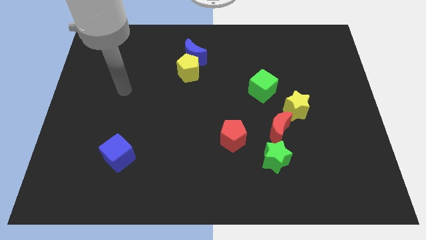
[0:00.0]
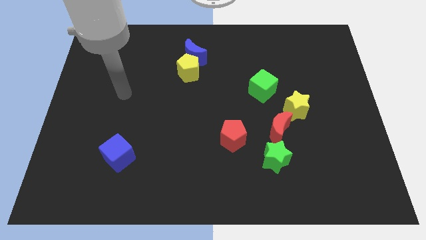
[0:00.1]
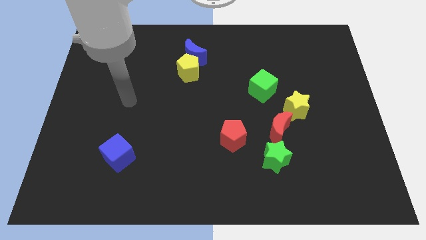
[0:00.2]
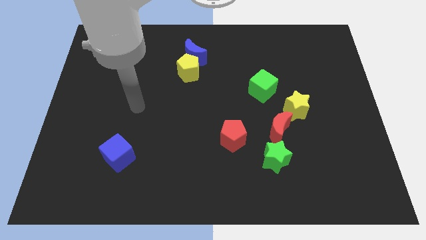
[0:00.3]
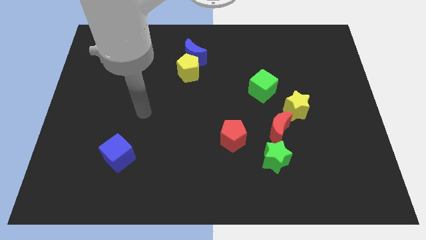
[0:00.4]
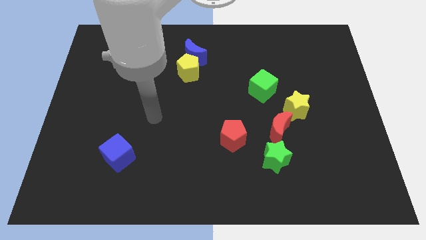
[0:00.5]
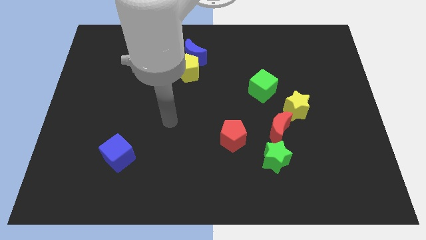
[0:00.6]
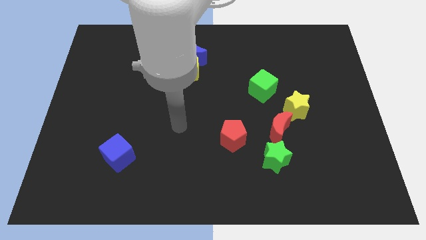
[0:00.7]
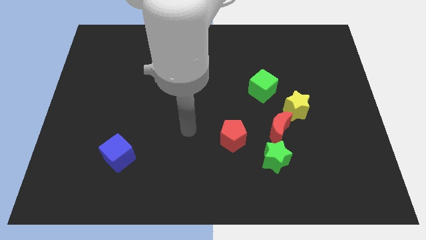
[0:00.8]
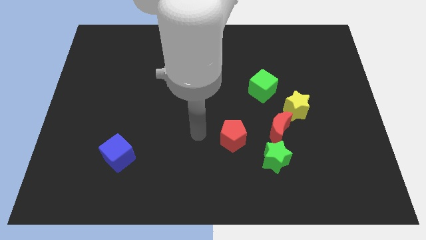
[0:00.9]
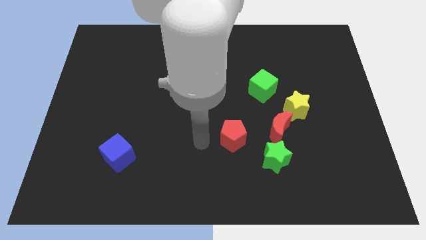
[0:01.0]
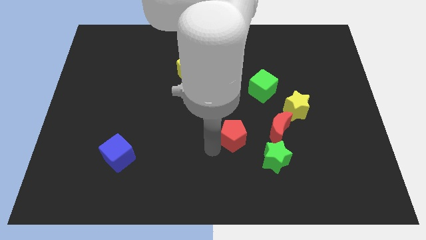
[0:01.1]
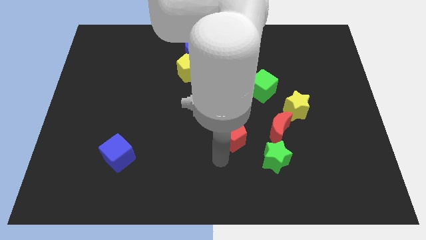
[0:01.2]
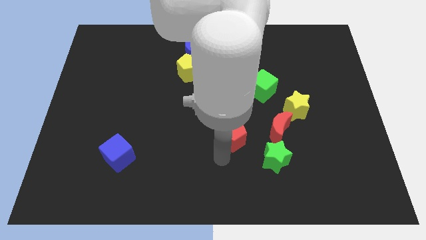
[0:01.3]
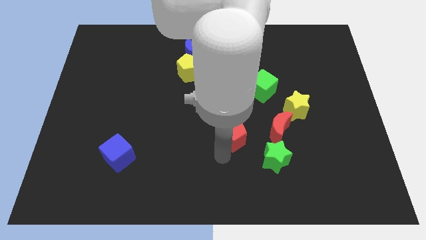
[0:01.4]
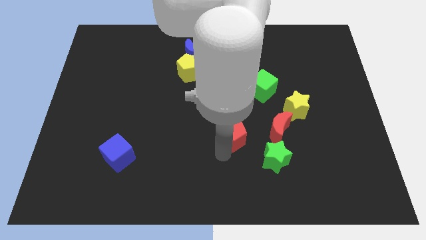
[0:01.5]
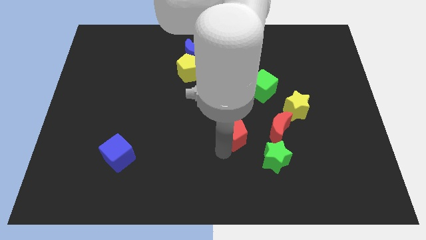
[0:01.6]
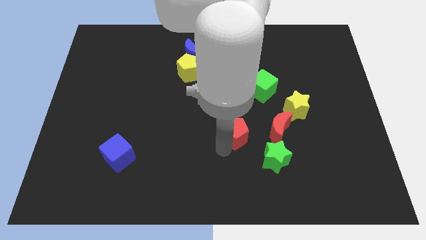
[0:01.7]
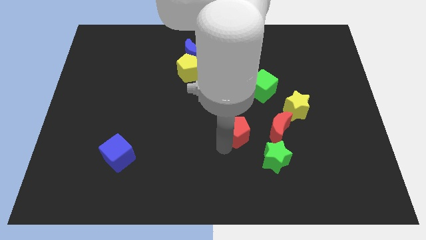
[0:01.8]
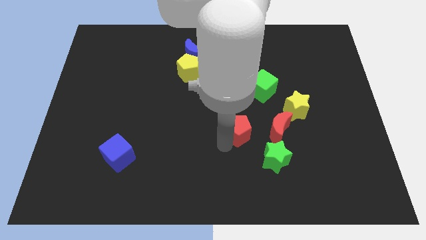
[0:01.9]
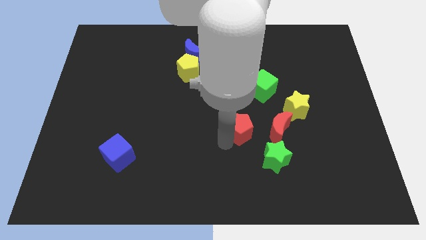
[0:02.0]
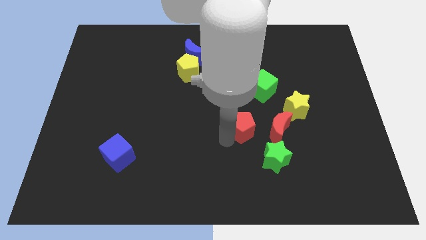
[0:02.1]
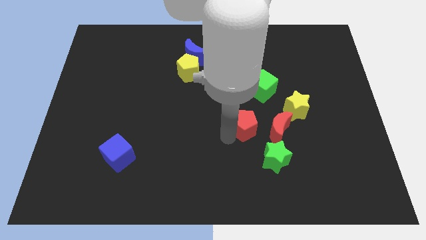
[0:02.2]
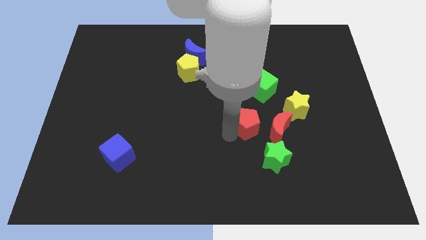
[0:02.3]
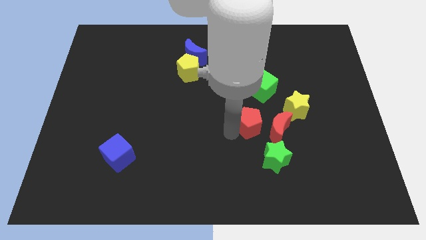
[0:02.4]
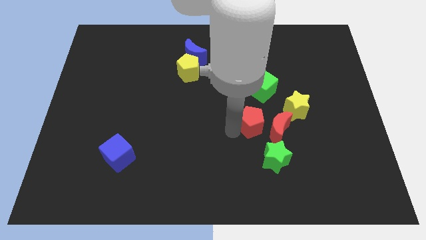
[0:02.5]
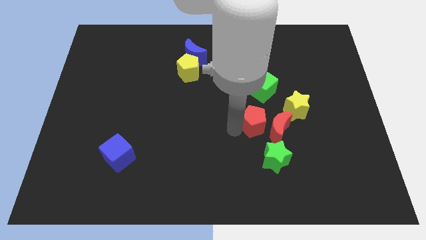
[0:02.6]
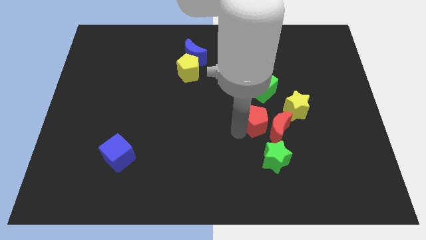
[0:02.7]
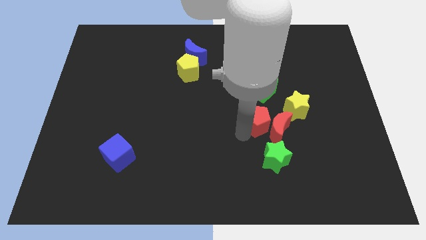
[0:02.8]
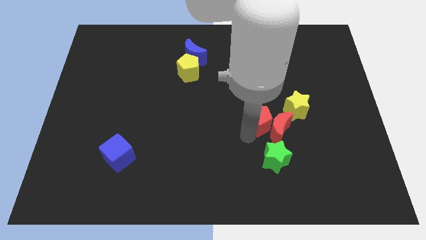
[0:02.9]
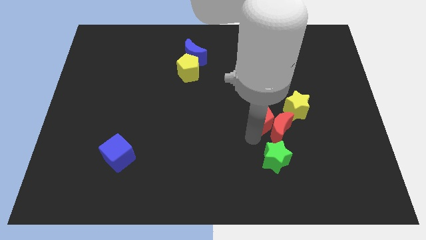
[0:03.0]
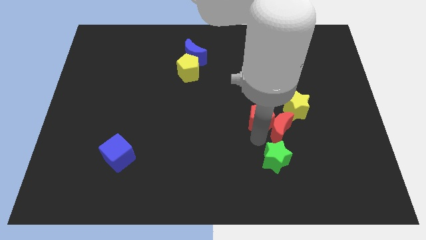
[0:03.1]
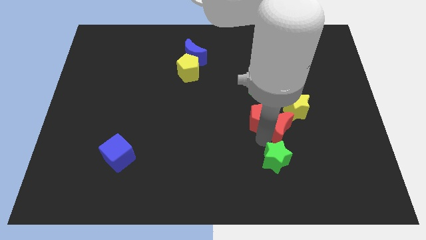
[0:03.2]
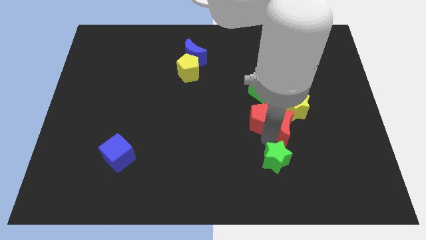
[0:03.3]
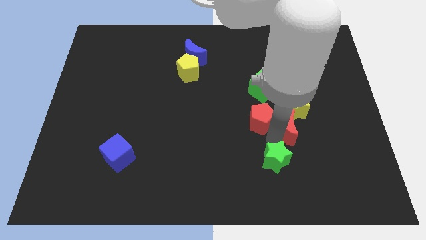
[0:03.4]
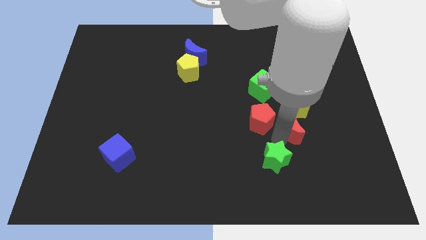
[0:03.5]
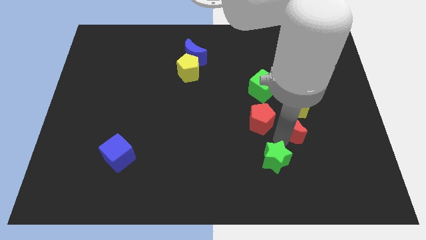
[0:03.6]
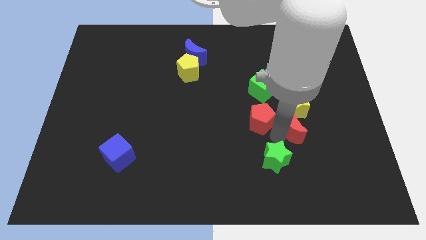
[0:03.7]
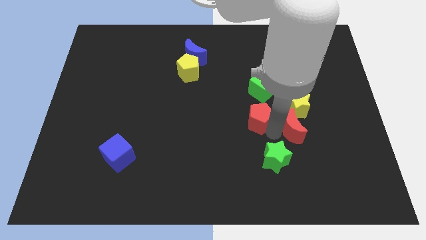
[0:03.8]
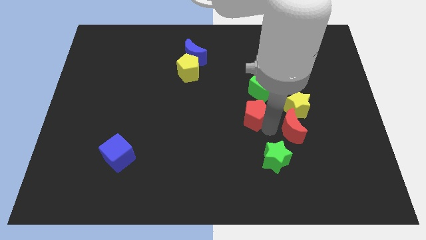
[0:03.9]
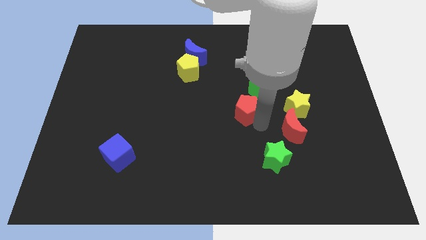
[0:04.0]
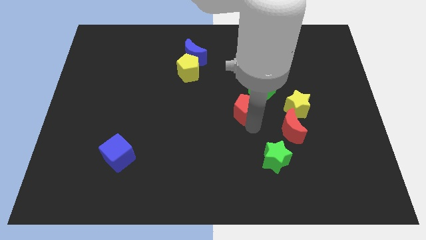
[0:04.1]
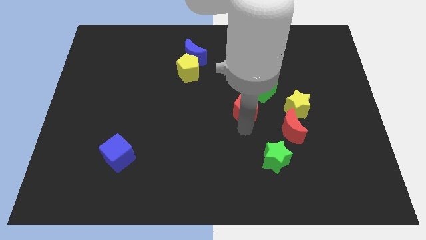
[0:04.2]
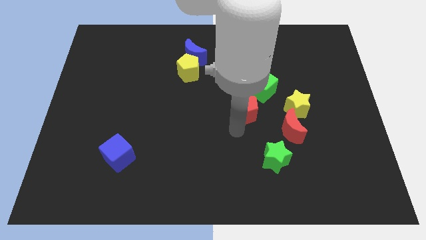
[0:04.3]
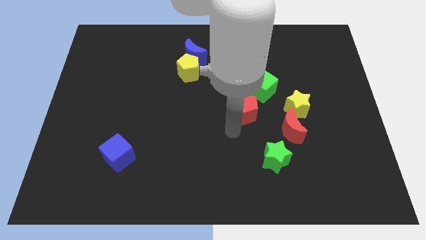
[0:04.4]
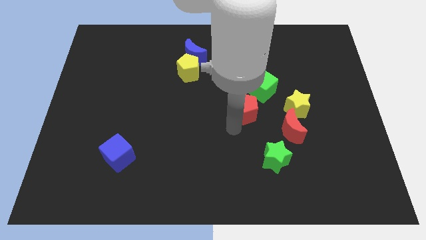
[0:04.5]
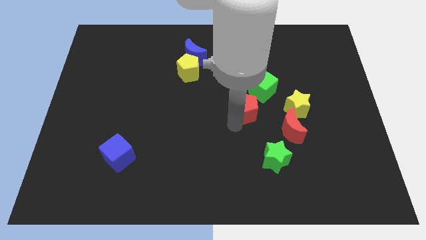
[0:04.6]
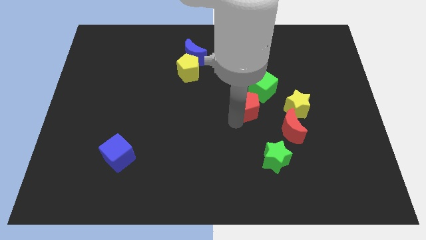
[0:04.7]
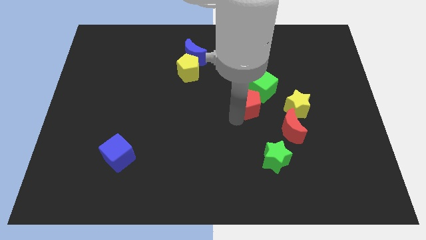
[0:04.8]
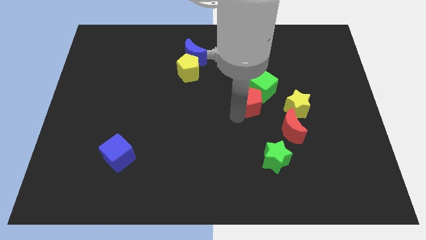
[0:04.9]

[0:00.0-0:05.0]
move the red pentagon to the green cube

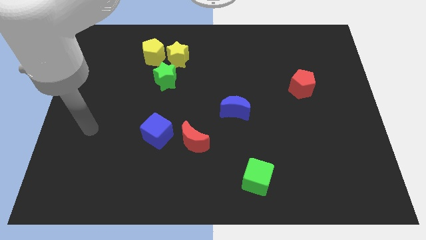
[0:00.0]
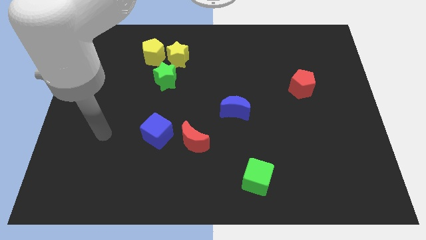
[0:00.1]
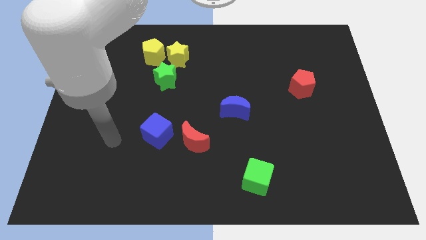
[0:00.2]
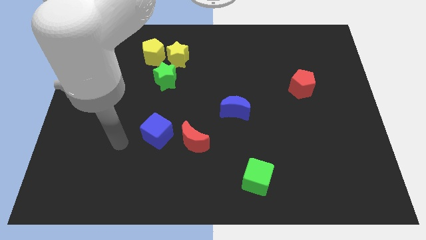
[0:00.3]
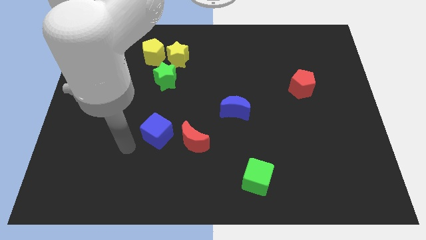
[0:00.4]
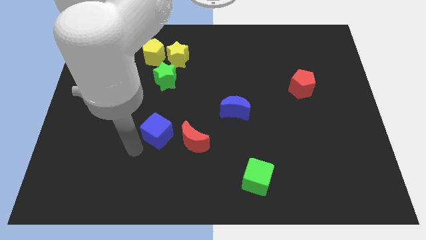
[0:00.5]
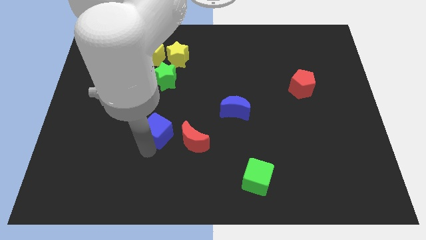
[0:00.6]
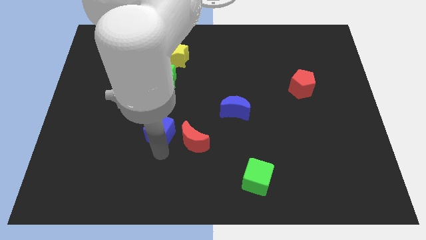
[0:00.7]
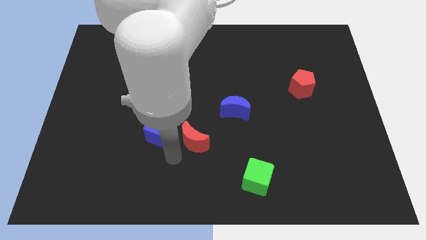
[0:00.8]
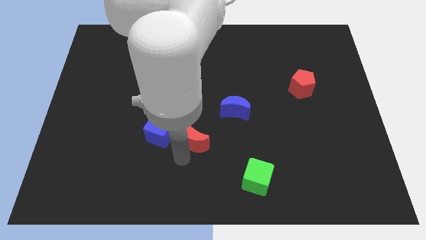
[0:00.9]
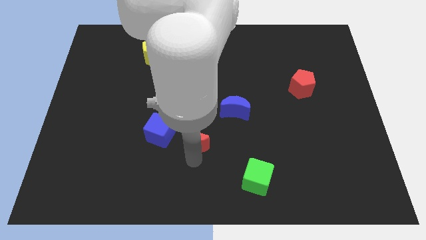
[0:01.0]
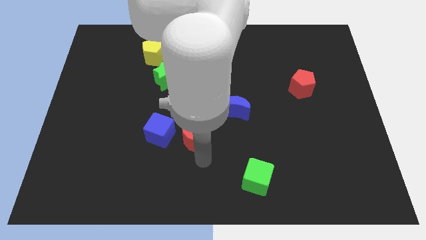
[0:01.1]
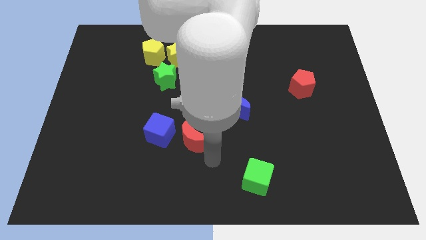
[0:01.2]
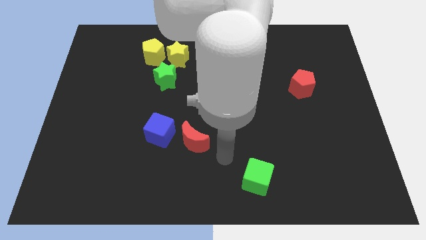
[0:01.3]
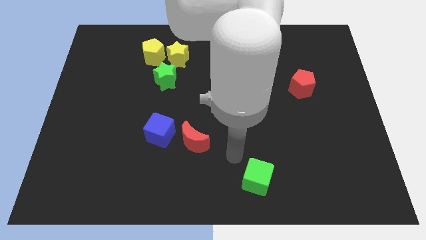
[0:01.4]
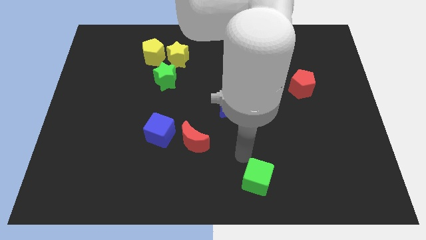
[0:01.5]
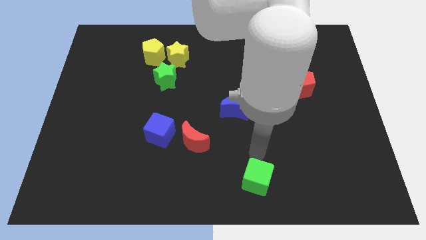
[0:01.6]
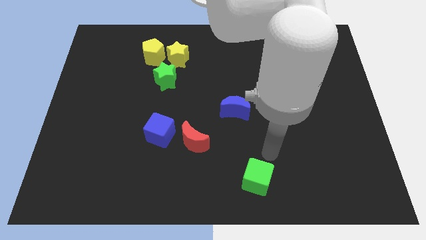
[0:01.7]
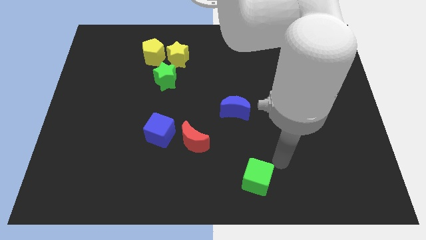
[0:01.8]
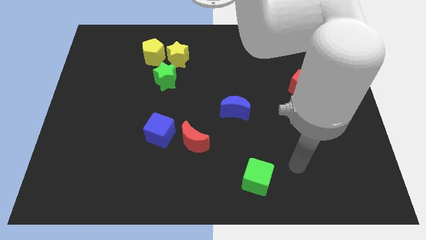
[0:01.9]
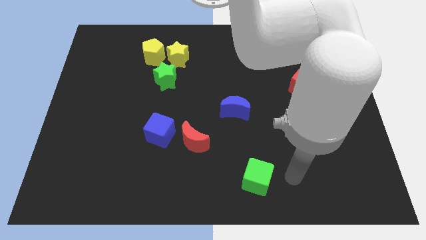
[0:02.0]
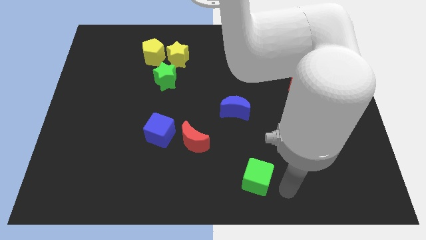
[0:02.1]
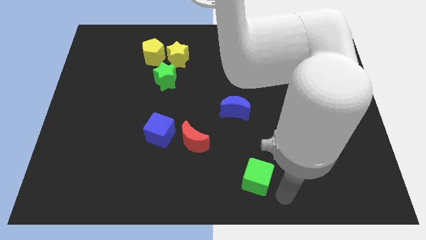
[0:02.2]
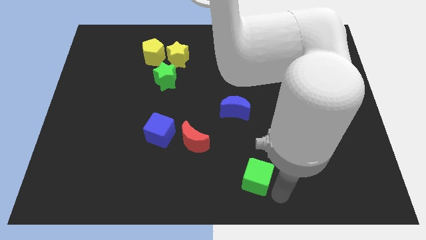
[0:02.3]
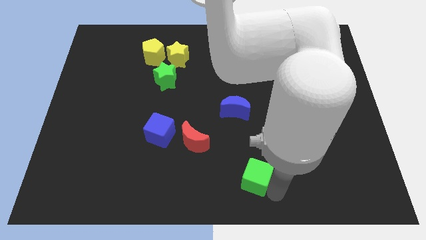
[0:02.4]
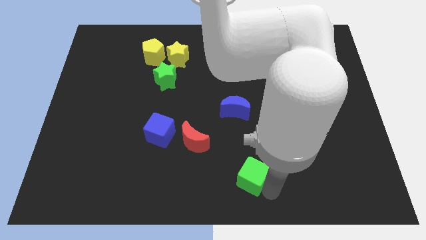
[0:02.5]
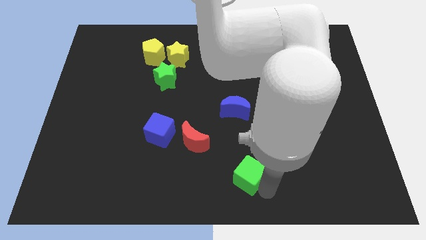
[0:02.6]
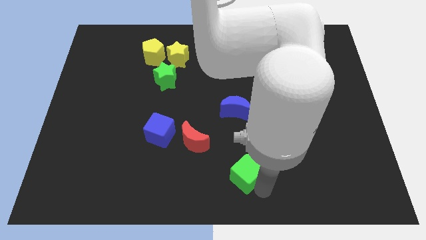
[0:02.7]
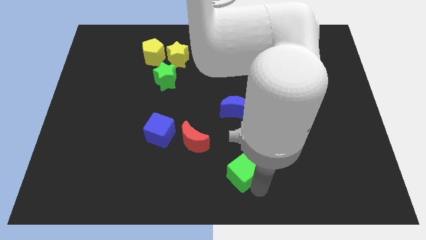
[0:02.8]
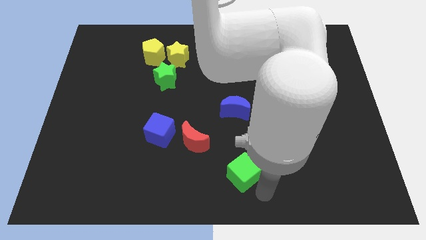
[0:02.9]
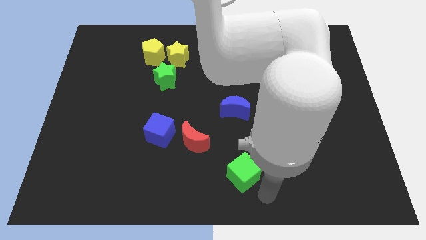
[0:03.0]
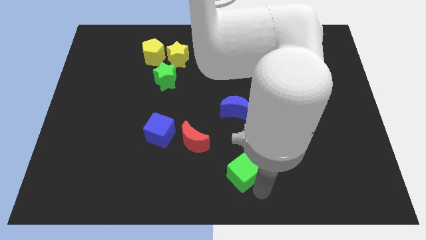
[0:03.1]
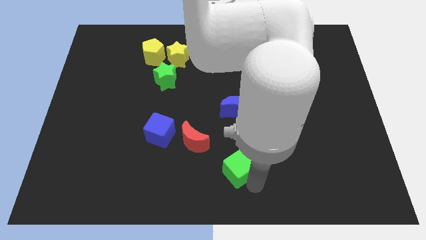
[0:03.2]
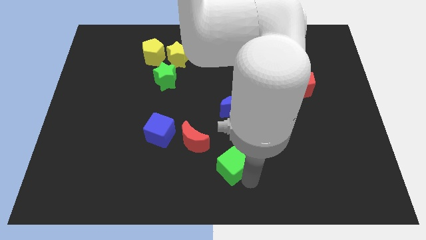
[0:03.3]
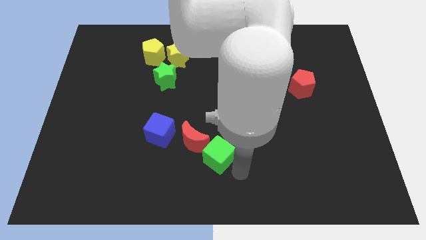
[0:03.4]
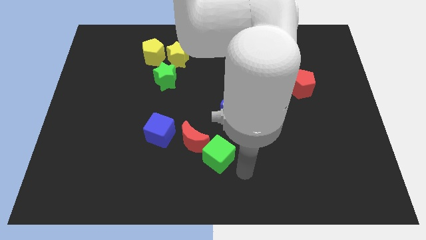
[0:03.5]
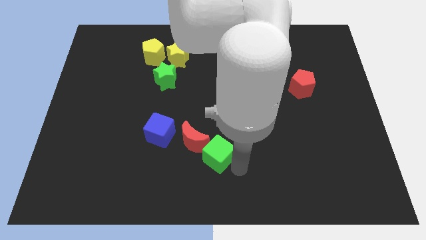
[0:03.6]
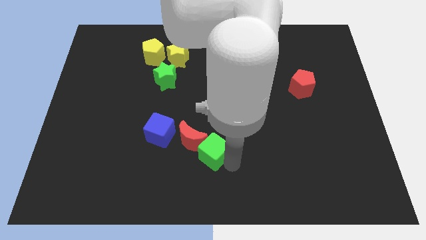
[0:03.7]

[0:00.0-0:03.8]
put the green cube towards the red moon
